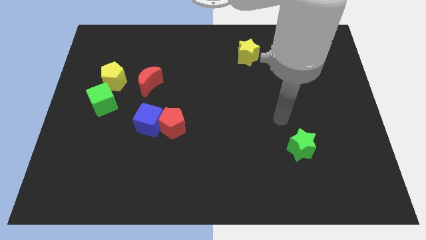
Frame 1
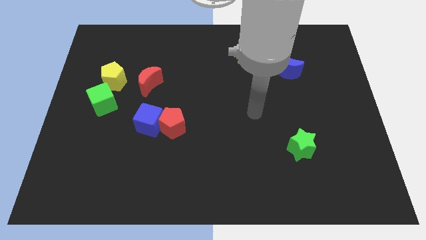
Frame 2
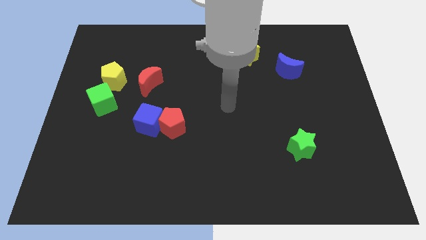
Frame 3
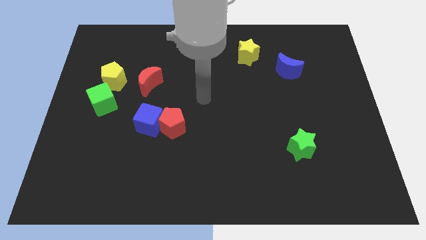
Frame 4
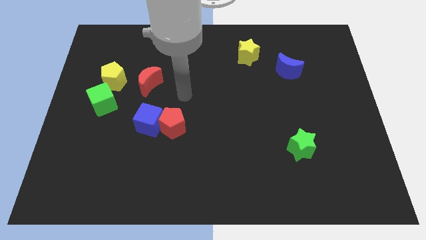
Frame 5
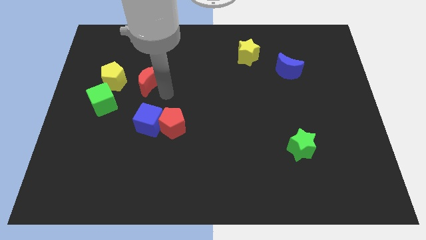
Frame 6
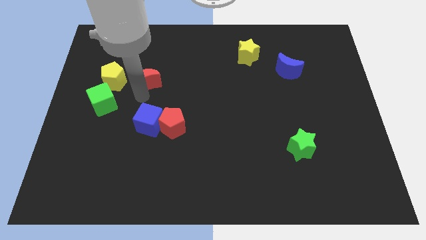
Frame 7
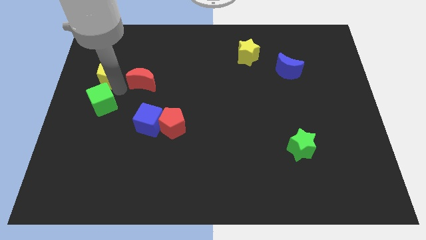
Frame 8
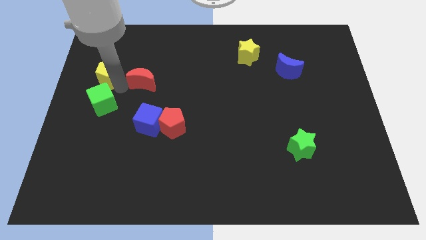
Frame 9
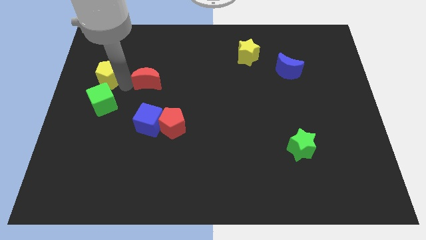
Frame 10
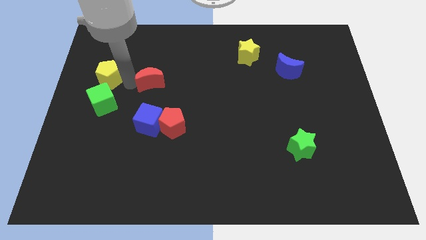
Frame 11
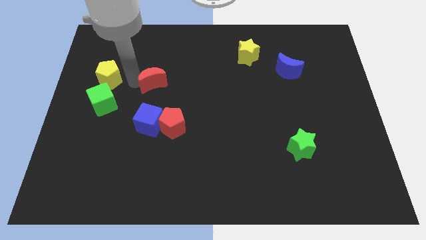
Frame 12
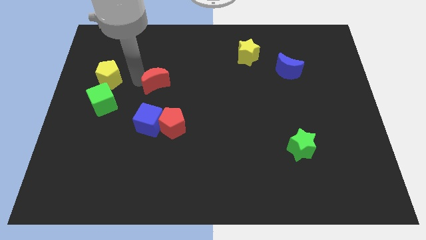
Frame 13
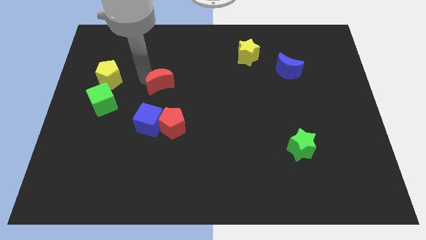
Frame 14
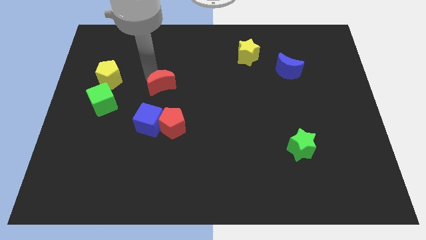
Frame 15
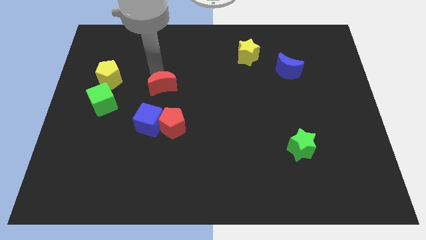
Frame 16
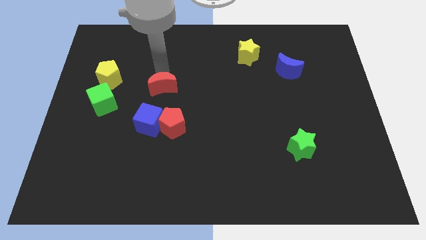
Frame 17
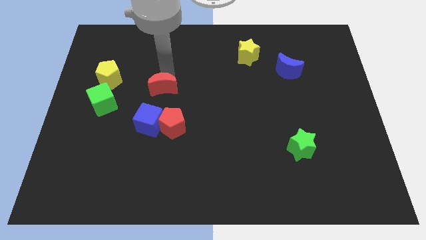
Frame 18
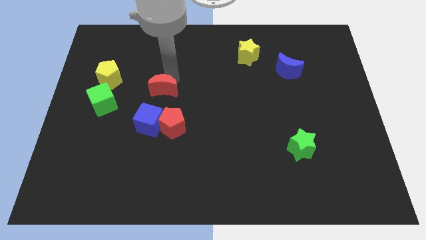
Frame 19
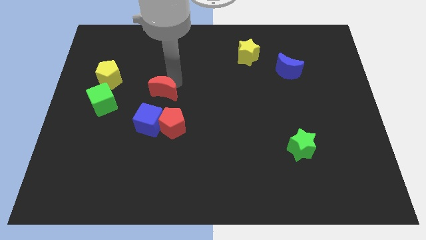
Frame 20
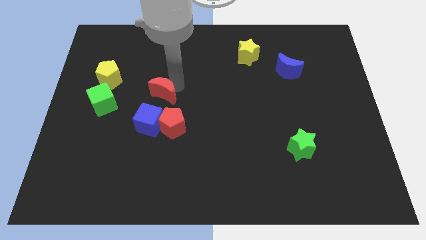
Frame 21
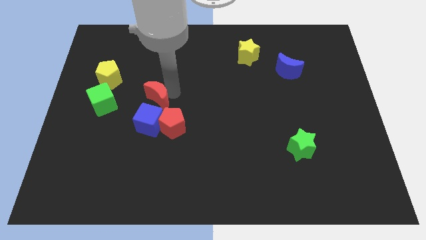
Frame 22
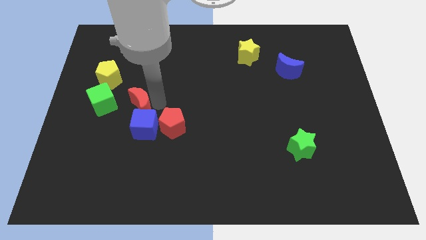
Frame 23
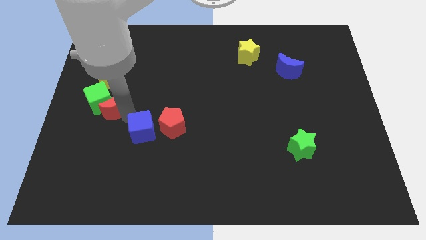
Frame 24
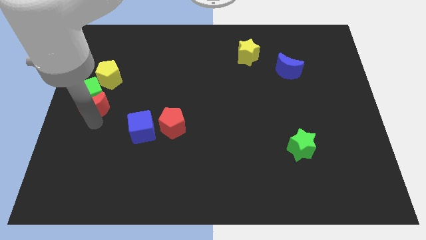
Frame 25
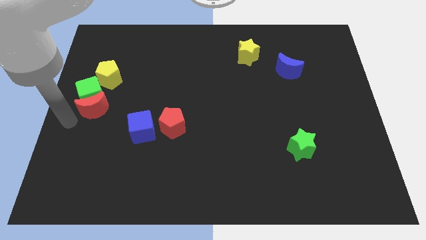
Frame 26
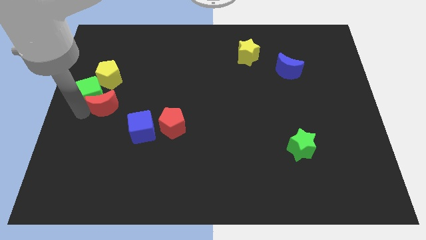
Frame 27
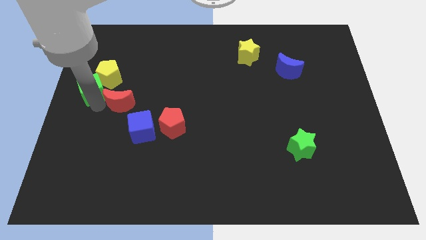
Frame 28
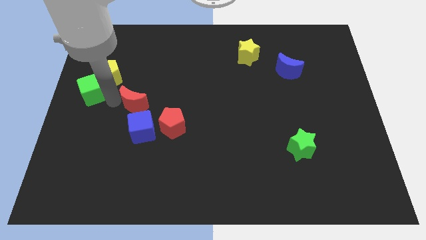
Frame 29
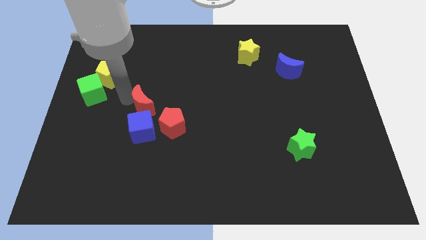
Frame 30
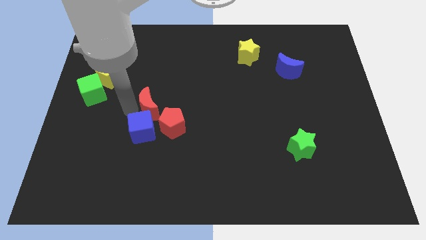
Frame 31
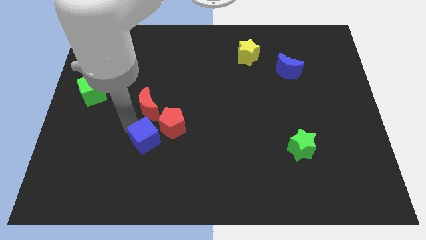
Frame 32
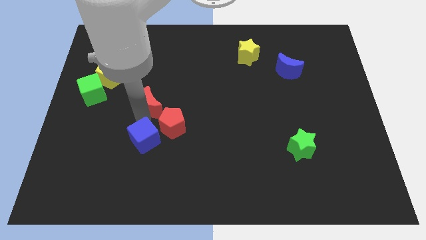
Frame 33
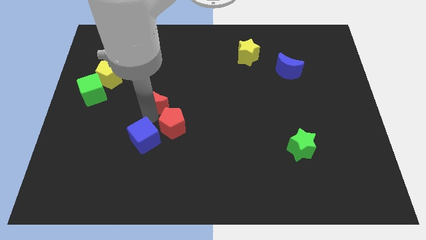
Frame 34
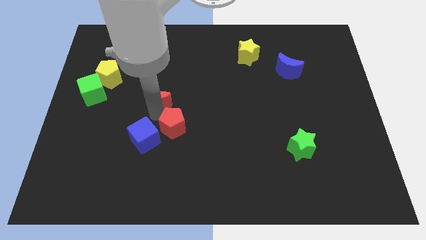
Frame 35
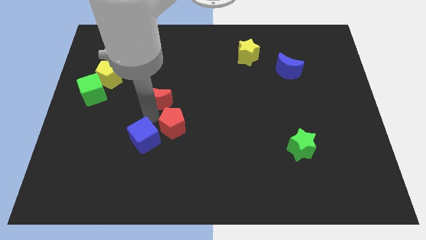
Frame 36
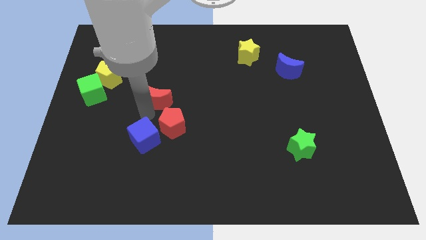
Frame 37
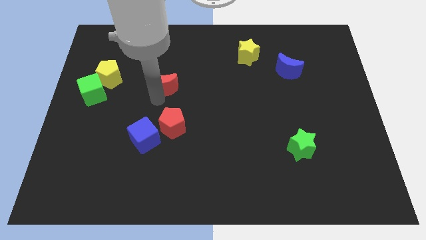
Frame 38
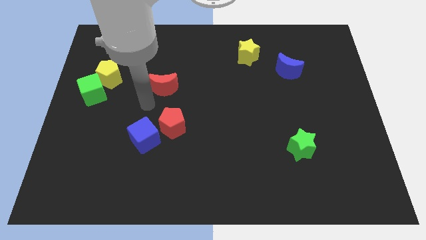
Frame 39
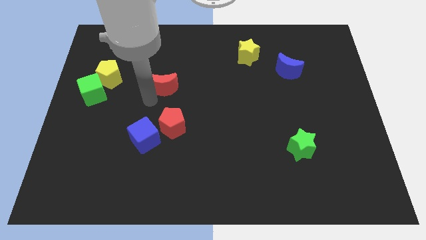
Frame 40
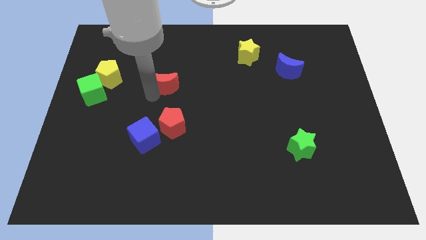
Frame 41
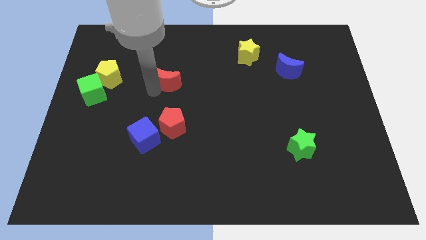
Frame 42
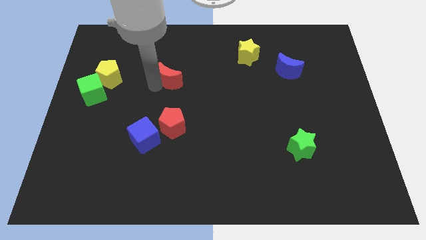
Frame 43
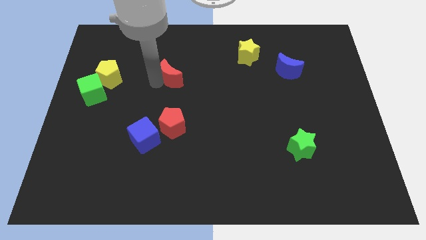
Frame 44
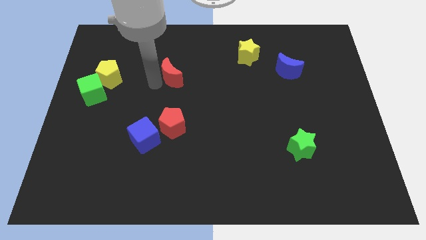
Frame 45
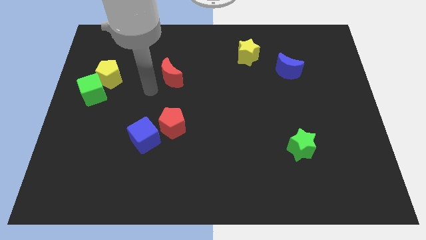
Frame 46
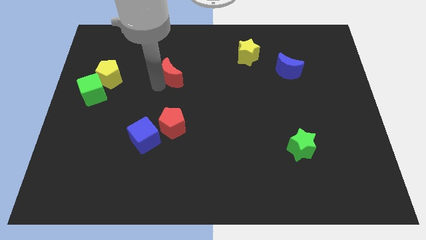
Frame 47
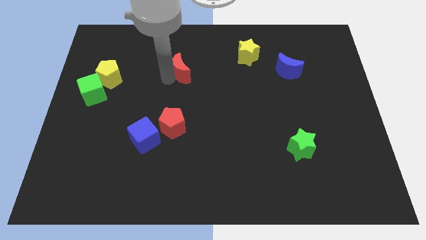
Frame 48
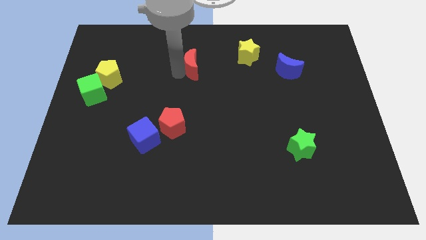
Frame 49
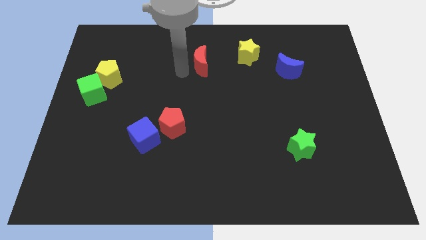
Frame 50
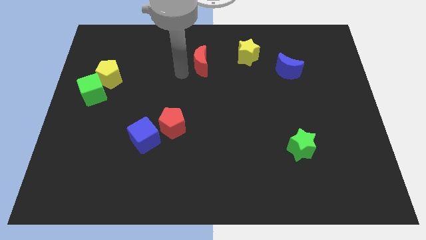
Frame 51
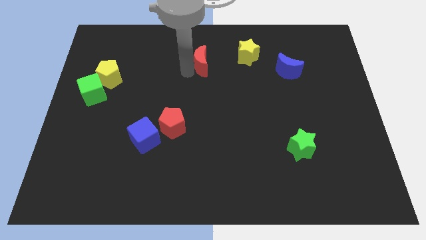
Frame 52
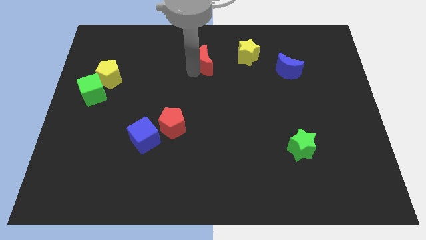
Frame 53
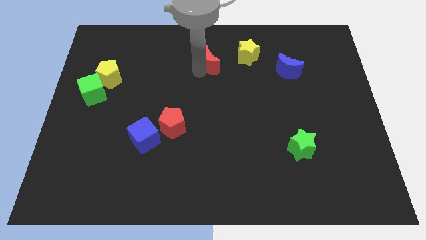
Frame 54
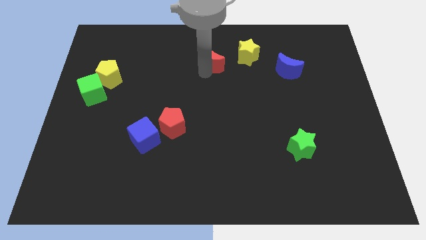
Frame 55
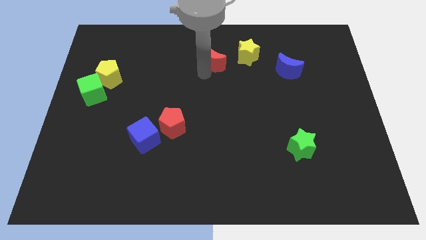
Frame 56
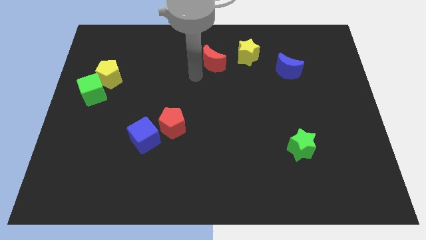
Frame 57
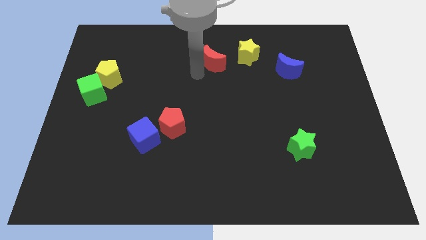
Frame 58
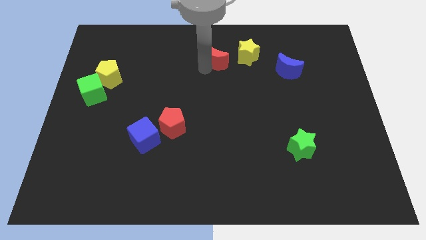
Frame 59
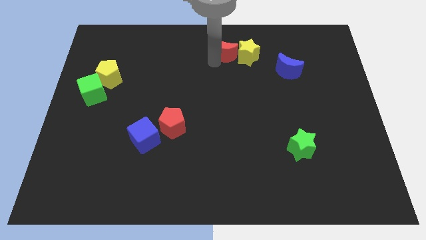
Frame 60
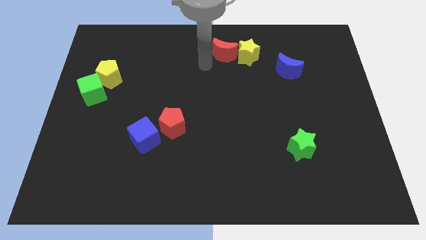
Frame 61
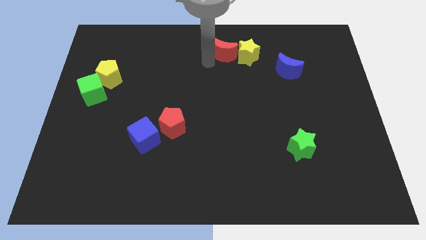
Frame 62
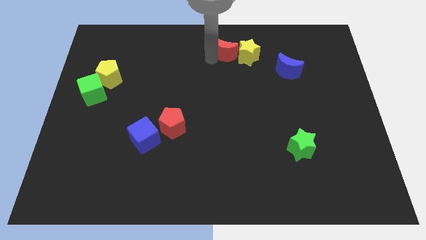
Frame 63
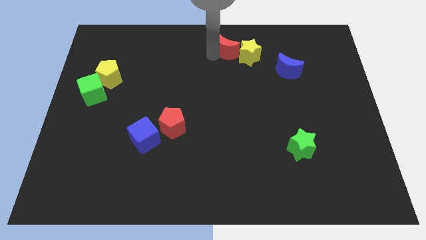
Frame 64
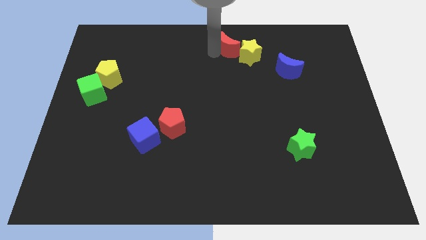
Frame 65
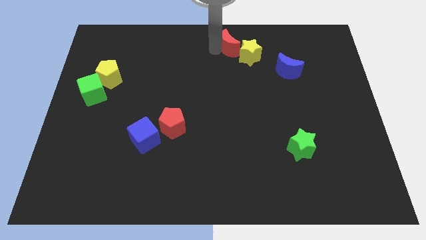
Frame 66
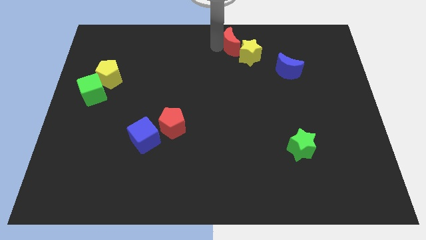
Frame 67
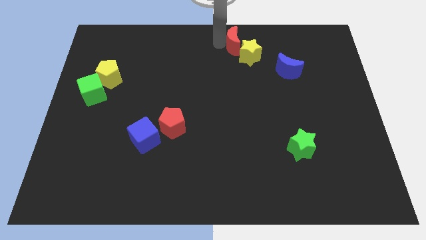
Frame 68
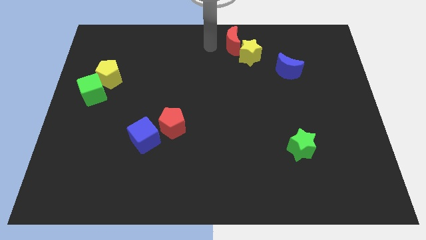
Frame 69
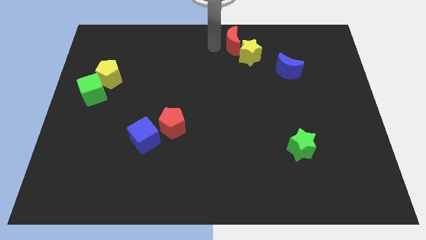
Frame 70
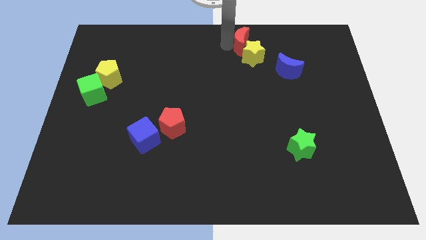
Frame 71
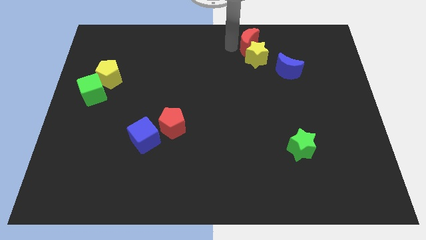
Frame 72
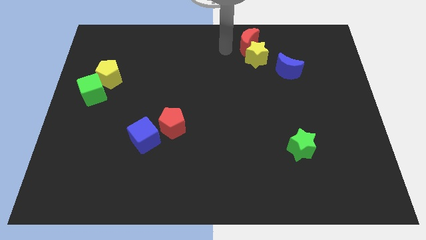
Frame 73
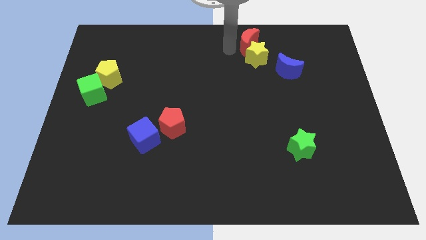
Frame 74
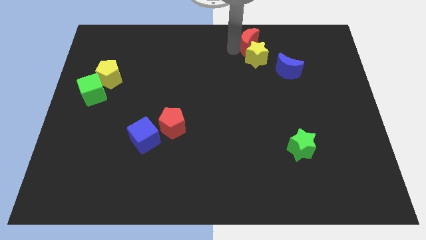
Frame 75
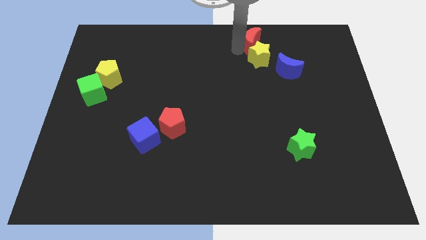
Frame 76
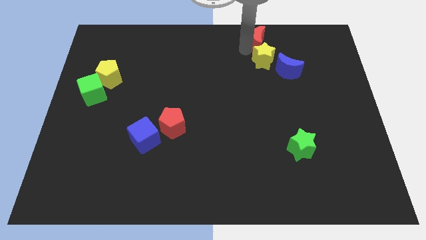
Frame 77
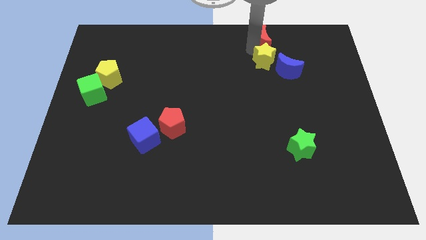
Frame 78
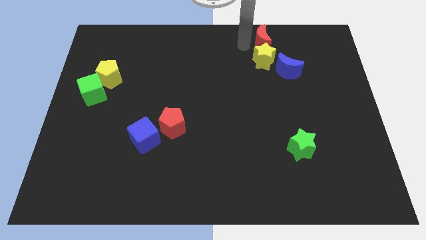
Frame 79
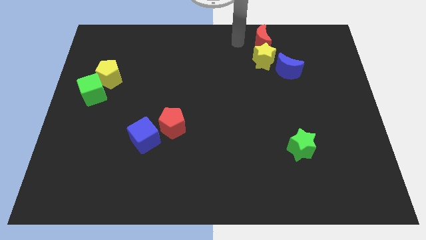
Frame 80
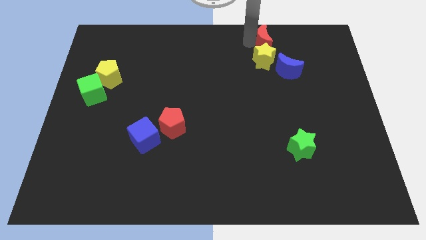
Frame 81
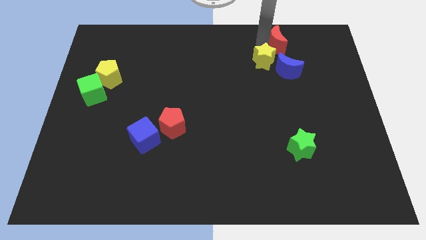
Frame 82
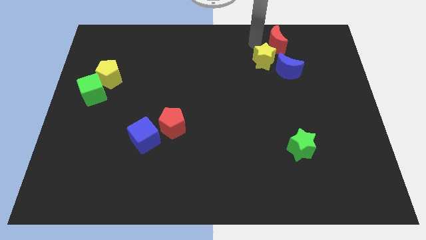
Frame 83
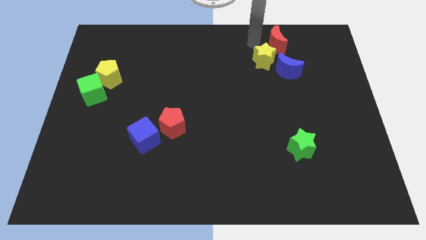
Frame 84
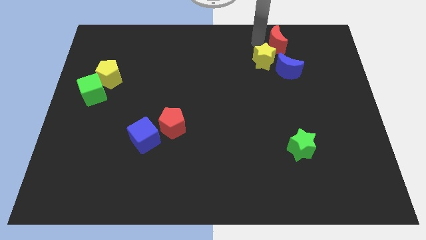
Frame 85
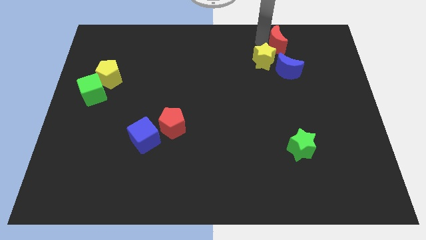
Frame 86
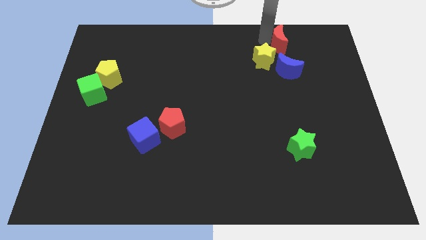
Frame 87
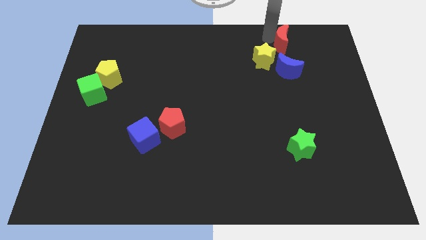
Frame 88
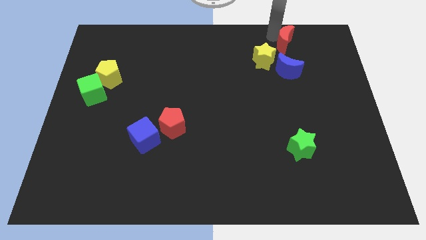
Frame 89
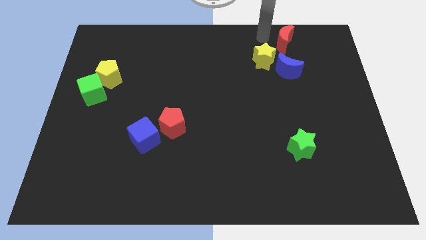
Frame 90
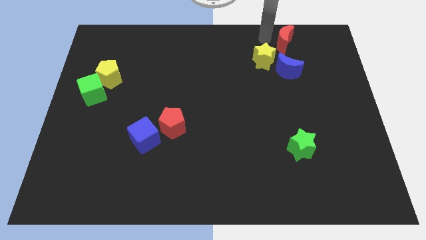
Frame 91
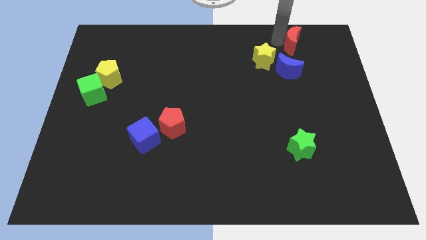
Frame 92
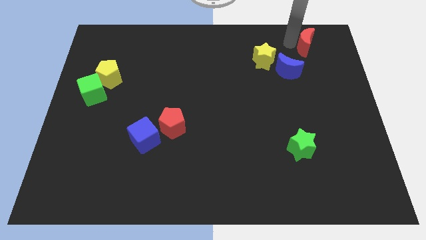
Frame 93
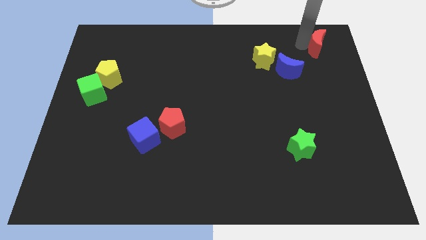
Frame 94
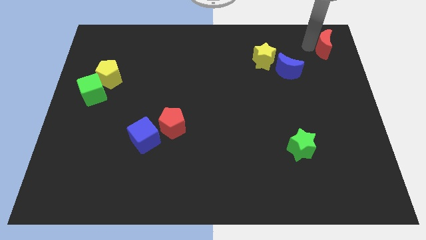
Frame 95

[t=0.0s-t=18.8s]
move the red moon to the upper right corner
